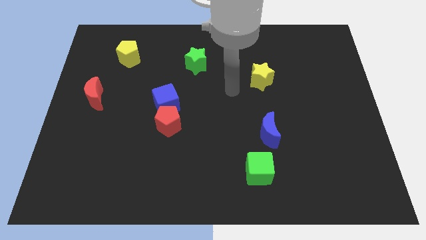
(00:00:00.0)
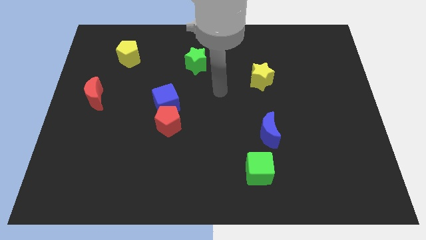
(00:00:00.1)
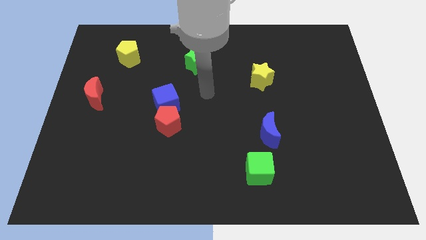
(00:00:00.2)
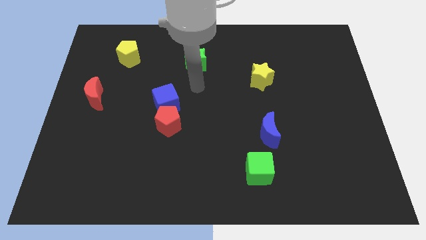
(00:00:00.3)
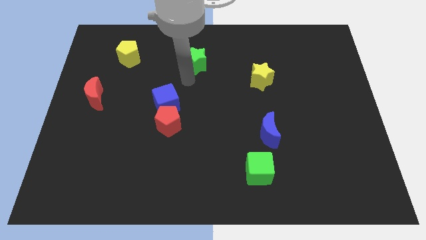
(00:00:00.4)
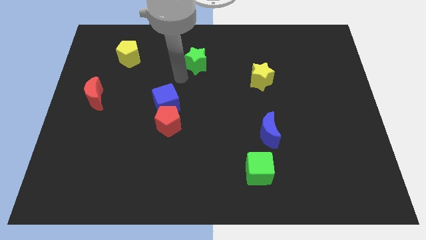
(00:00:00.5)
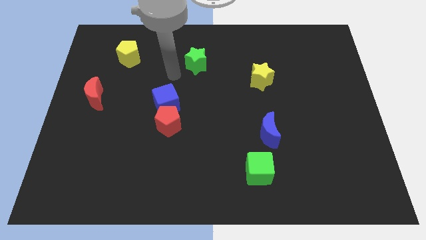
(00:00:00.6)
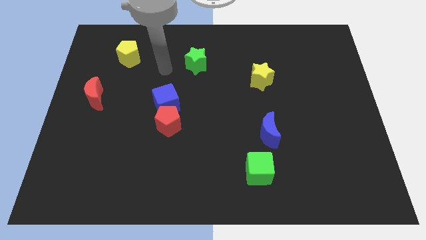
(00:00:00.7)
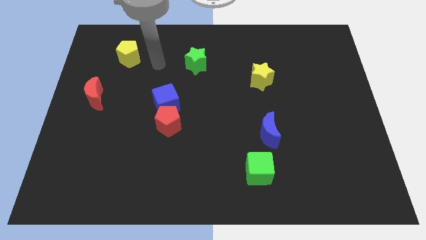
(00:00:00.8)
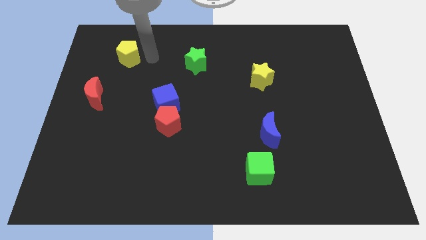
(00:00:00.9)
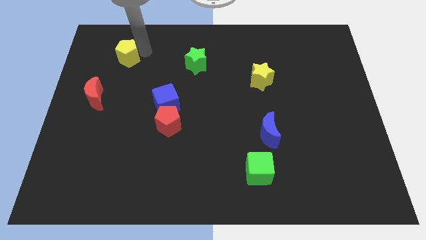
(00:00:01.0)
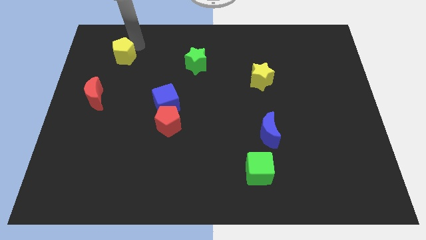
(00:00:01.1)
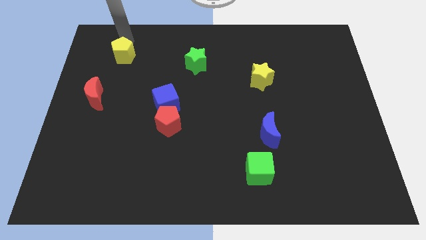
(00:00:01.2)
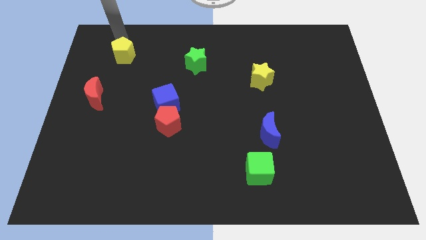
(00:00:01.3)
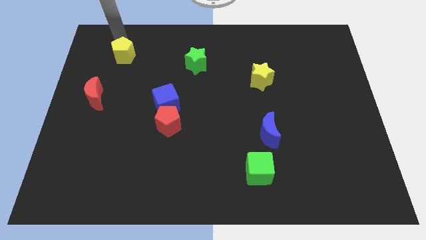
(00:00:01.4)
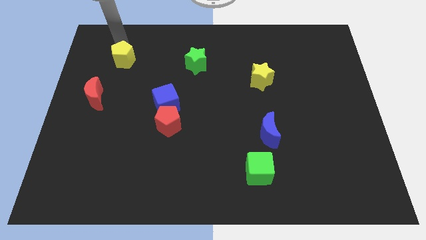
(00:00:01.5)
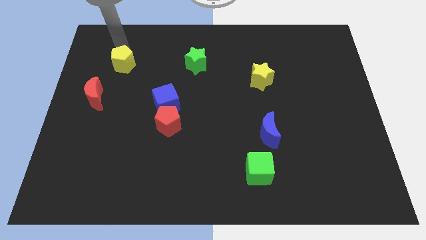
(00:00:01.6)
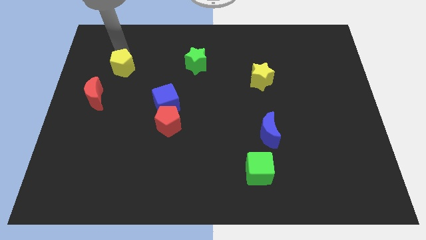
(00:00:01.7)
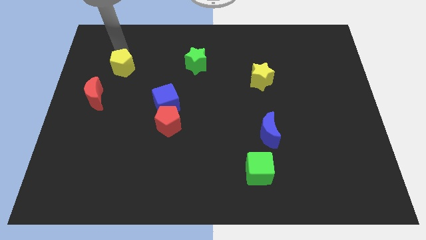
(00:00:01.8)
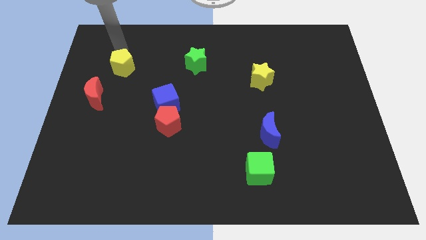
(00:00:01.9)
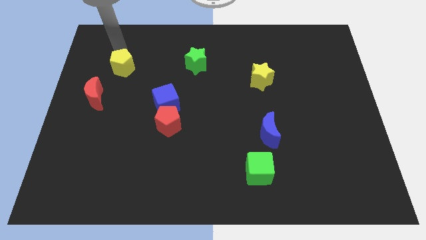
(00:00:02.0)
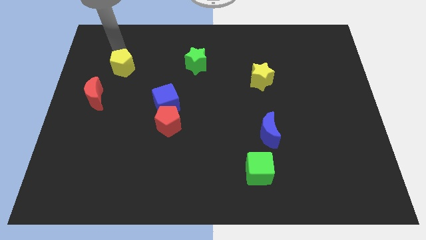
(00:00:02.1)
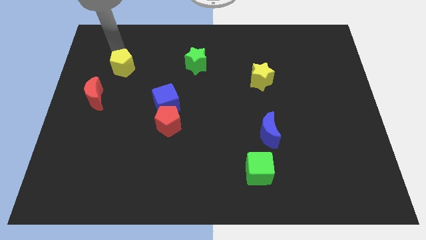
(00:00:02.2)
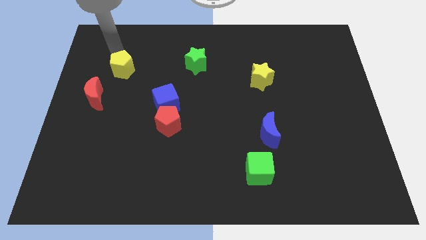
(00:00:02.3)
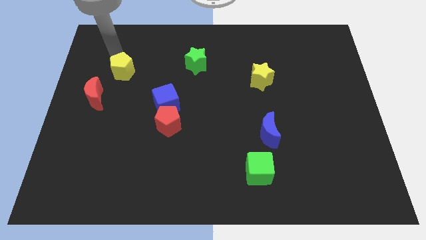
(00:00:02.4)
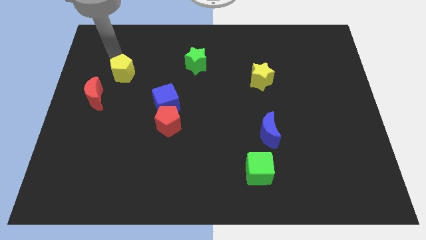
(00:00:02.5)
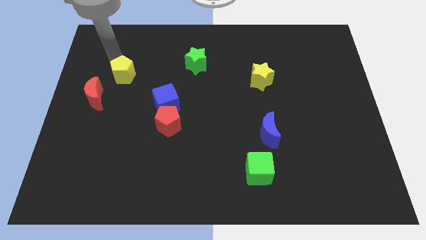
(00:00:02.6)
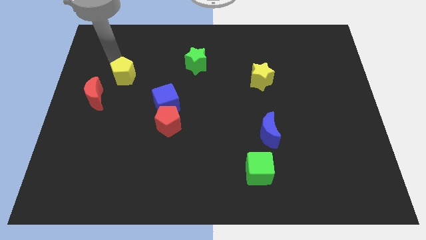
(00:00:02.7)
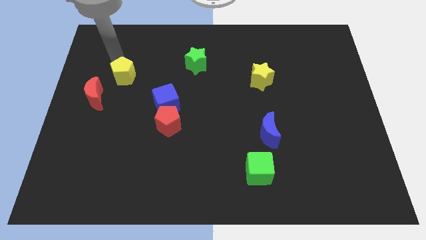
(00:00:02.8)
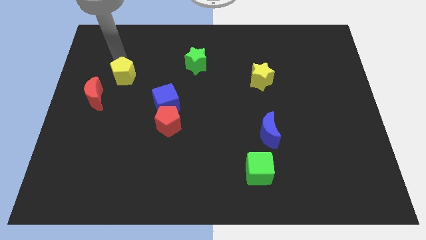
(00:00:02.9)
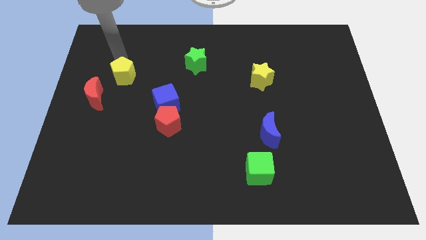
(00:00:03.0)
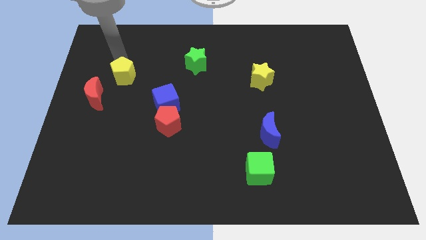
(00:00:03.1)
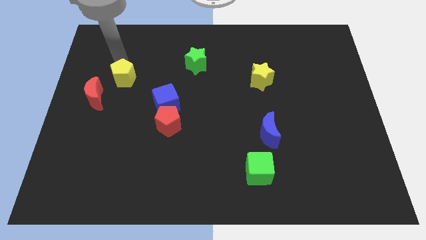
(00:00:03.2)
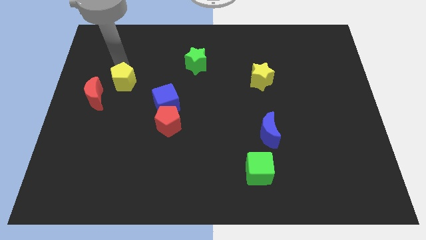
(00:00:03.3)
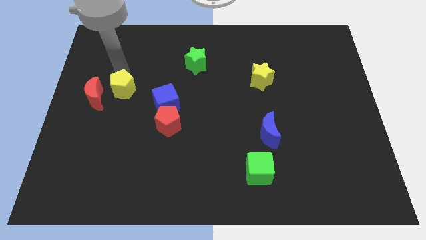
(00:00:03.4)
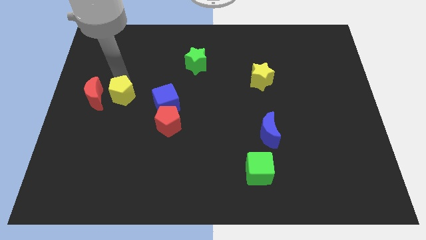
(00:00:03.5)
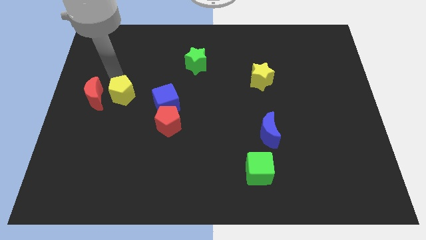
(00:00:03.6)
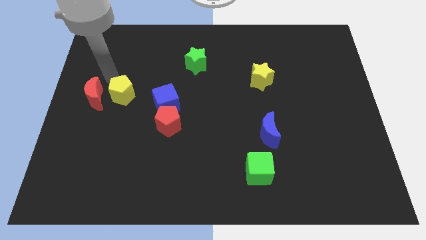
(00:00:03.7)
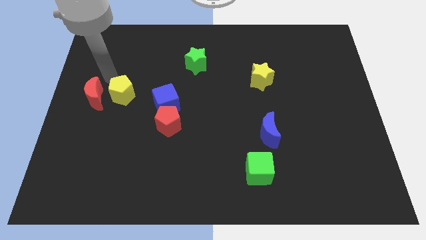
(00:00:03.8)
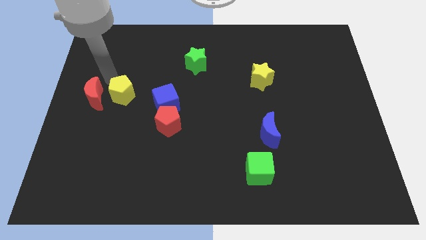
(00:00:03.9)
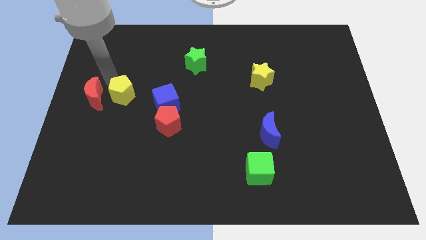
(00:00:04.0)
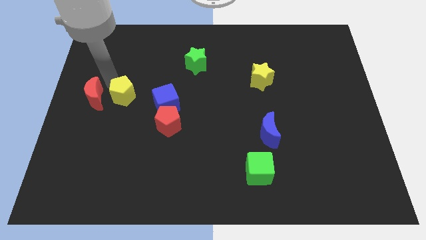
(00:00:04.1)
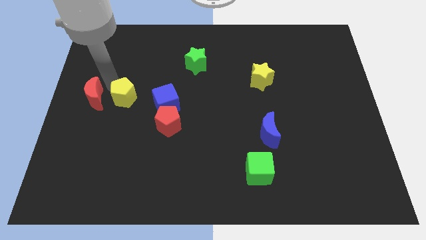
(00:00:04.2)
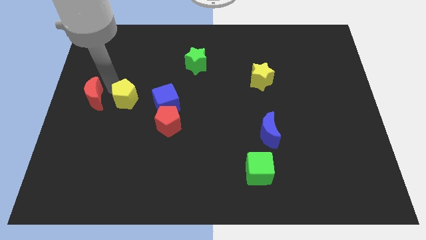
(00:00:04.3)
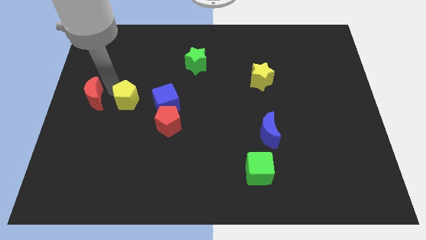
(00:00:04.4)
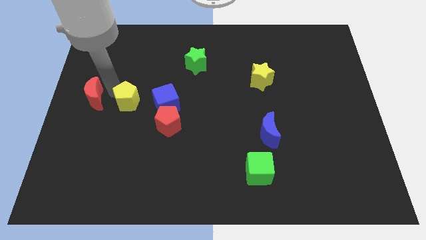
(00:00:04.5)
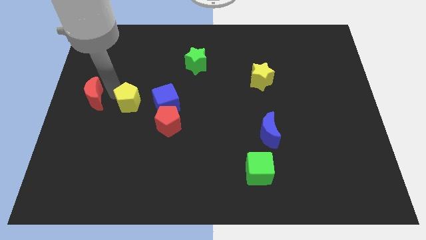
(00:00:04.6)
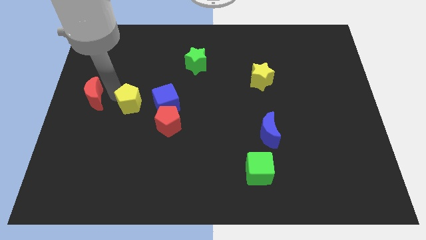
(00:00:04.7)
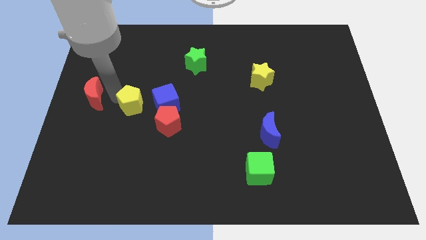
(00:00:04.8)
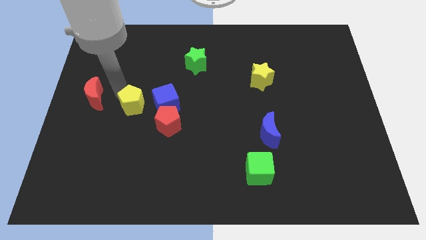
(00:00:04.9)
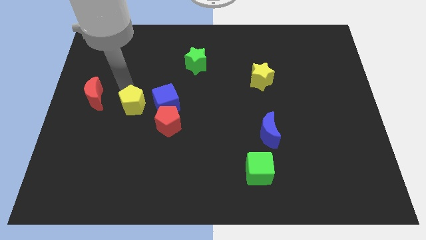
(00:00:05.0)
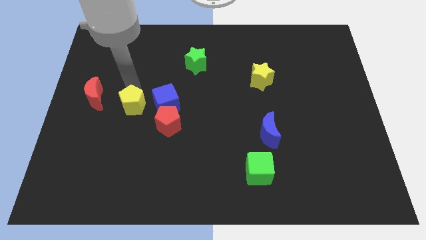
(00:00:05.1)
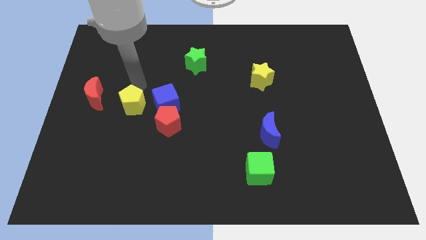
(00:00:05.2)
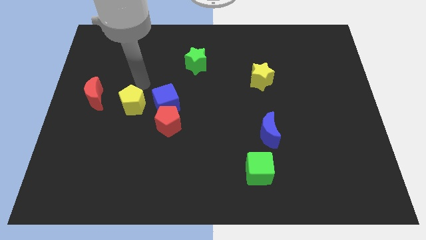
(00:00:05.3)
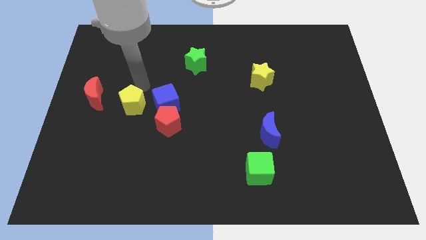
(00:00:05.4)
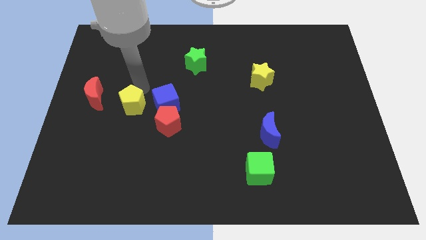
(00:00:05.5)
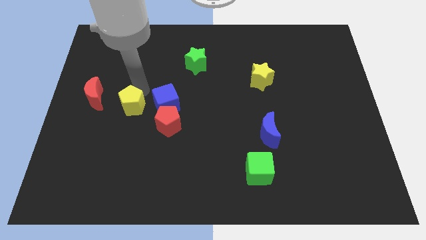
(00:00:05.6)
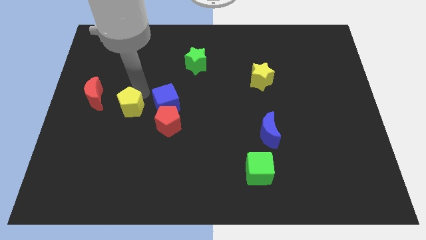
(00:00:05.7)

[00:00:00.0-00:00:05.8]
move the yellow pentagon just left of the red pentagon

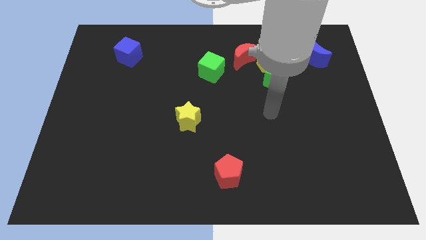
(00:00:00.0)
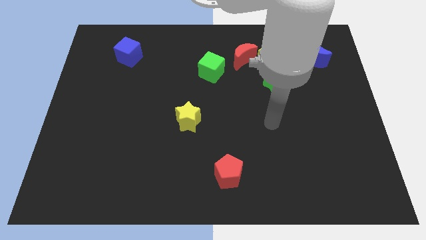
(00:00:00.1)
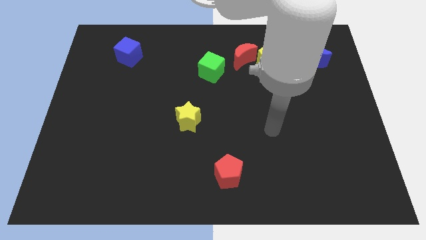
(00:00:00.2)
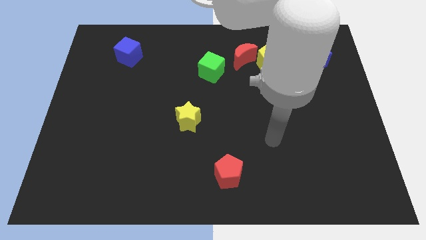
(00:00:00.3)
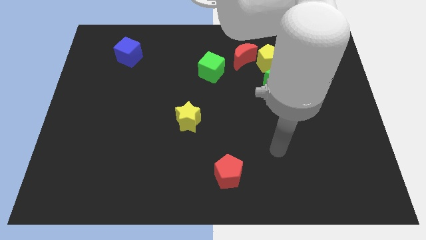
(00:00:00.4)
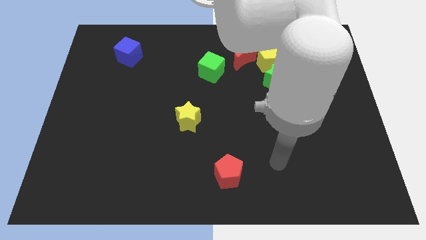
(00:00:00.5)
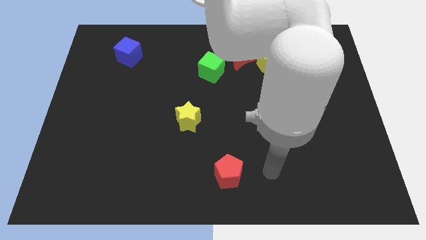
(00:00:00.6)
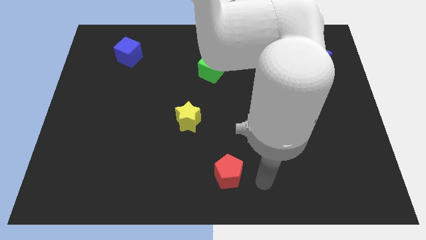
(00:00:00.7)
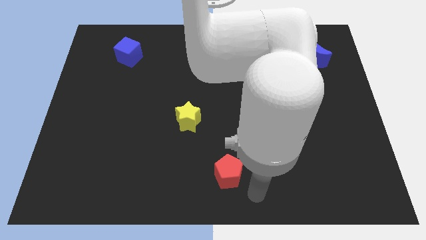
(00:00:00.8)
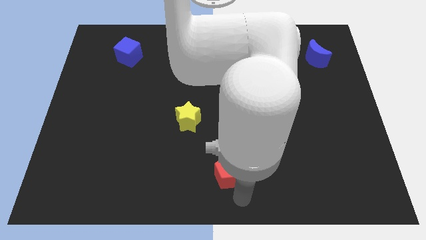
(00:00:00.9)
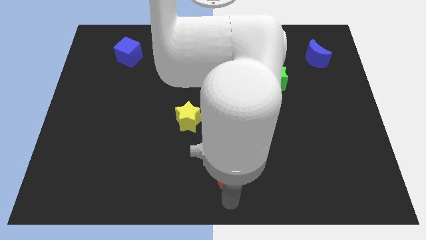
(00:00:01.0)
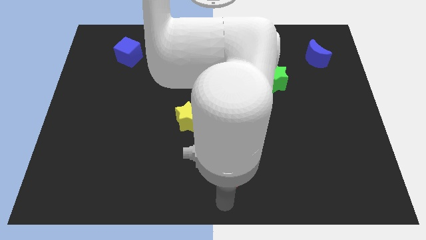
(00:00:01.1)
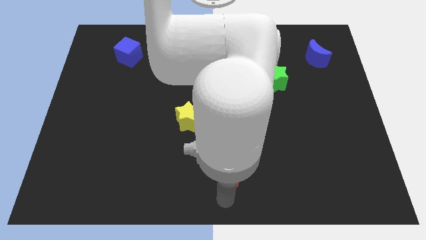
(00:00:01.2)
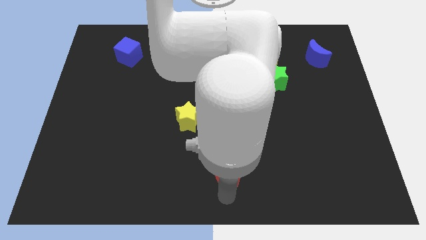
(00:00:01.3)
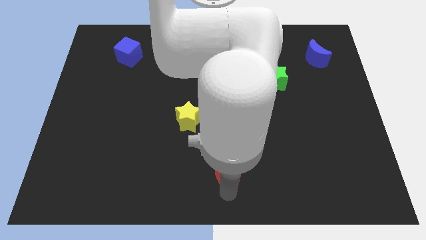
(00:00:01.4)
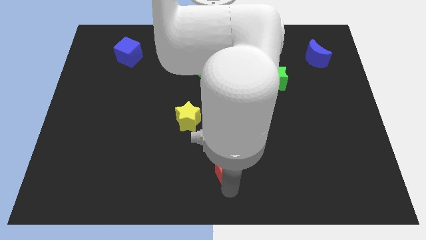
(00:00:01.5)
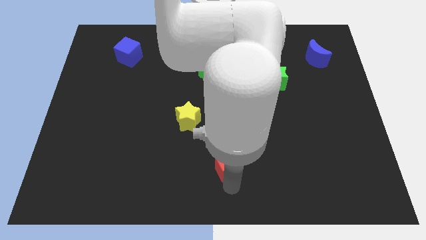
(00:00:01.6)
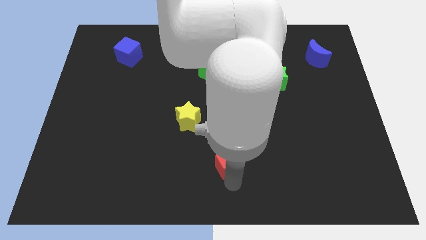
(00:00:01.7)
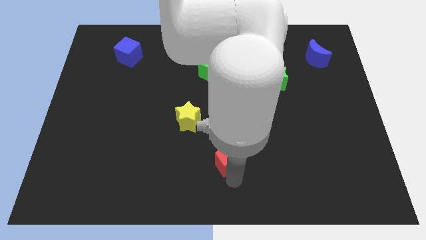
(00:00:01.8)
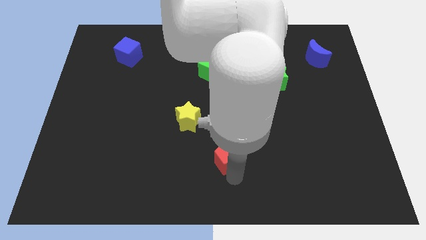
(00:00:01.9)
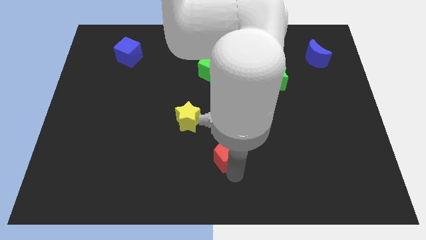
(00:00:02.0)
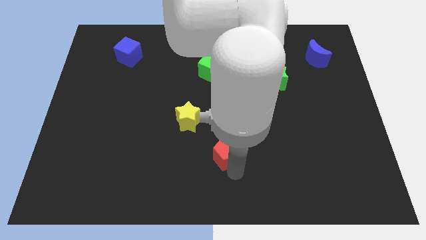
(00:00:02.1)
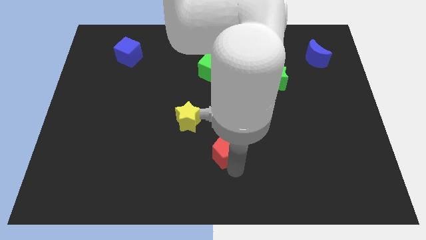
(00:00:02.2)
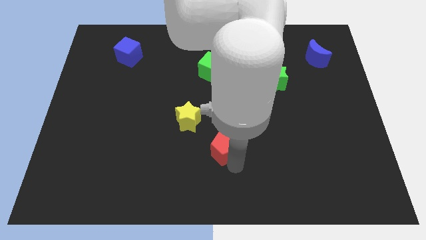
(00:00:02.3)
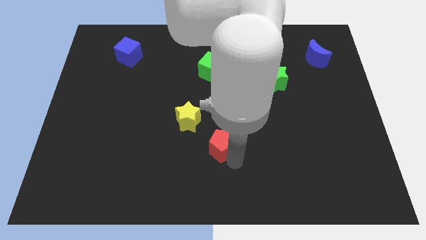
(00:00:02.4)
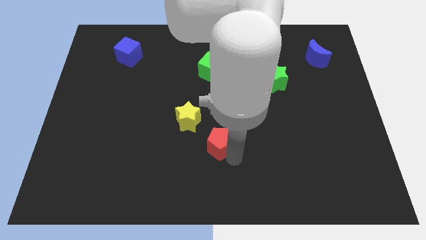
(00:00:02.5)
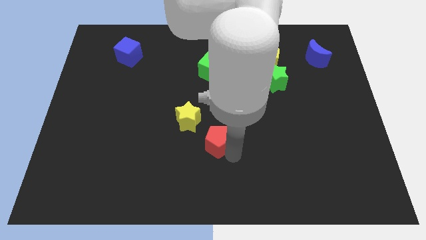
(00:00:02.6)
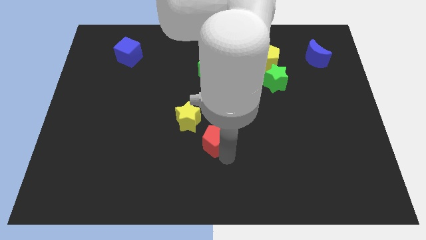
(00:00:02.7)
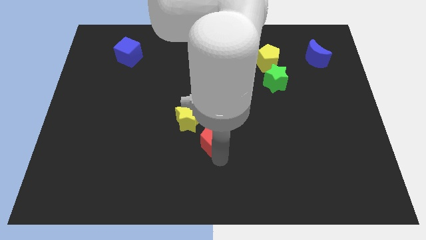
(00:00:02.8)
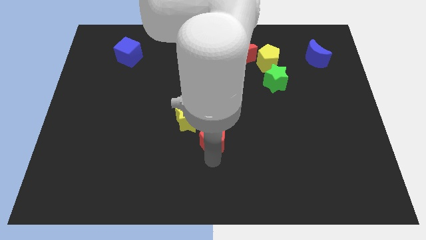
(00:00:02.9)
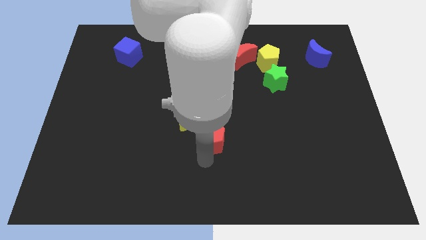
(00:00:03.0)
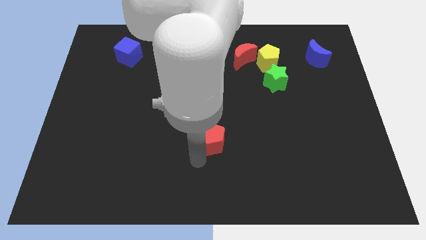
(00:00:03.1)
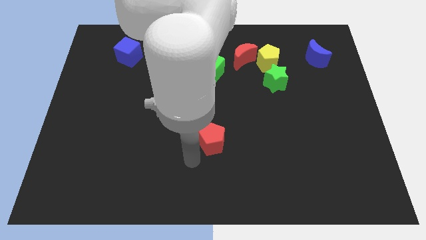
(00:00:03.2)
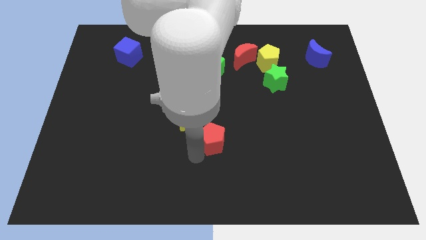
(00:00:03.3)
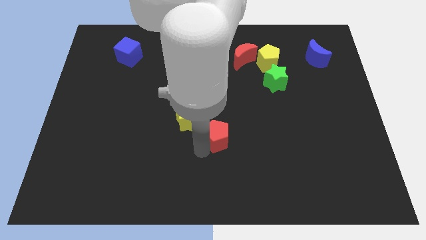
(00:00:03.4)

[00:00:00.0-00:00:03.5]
put the red pentagon to the right of the yellow star
